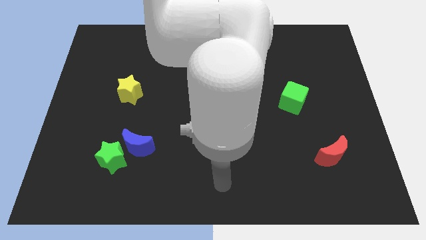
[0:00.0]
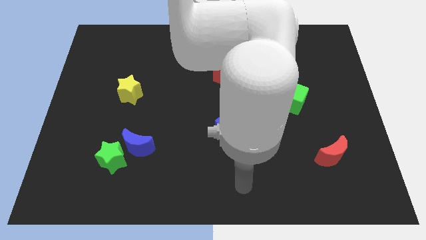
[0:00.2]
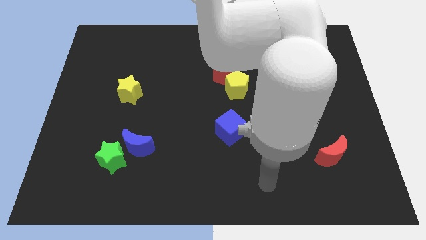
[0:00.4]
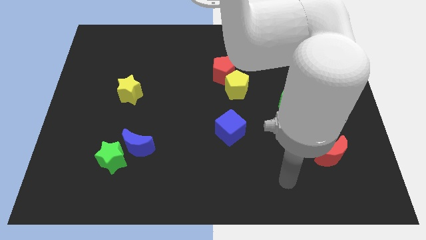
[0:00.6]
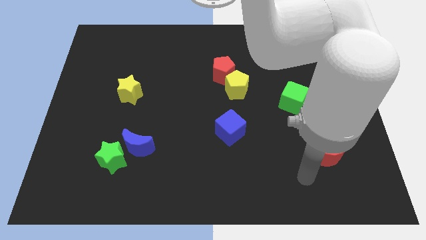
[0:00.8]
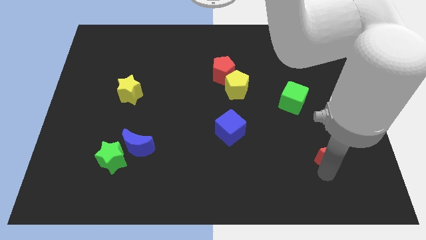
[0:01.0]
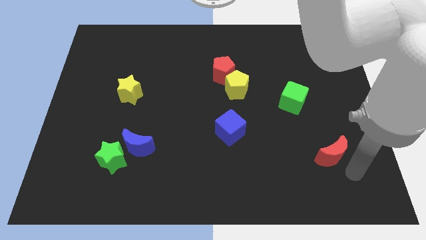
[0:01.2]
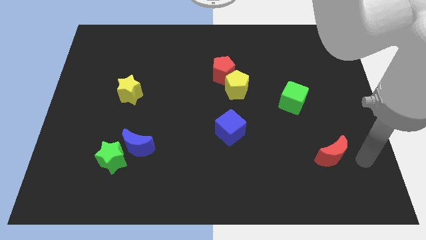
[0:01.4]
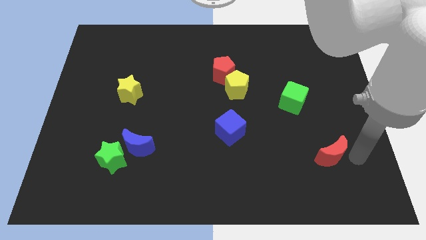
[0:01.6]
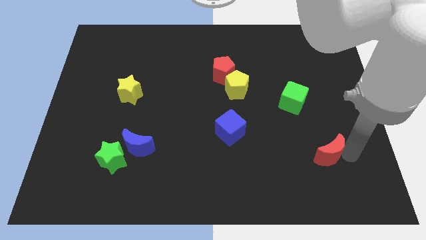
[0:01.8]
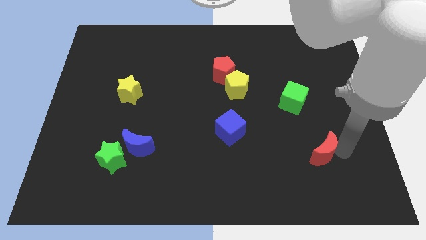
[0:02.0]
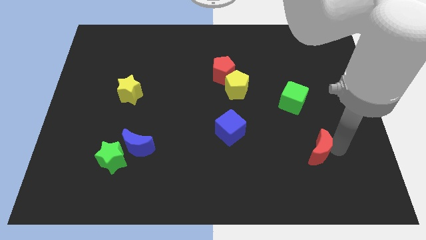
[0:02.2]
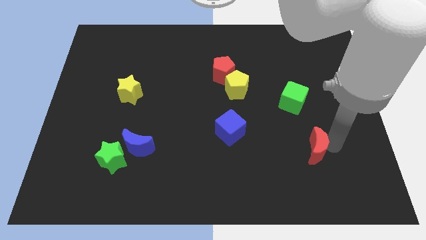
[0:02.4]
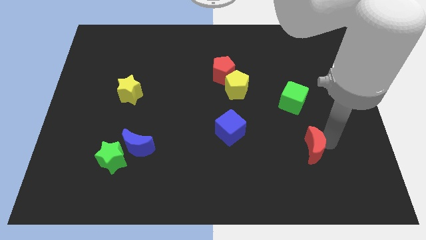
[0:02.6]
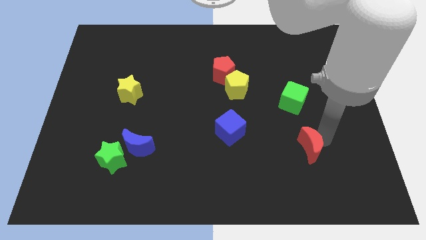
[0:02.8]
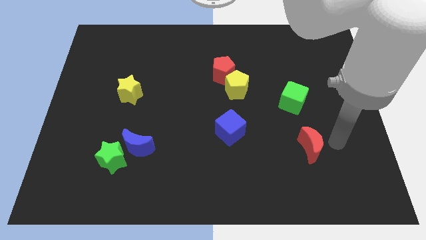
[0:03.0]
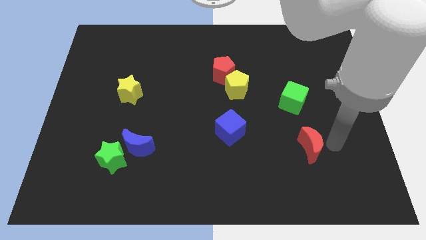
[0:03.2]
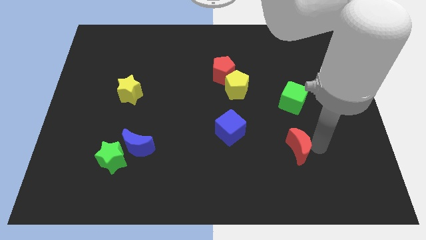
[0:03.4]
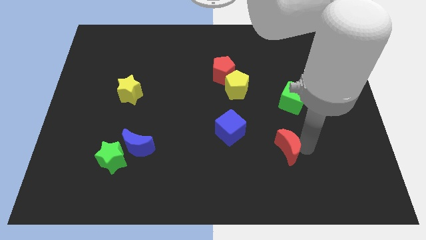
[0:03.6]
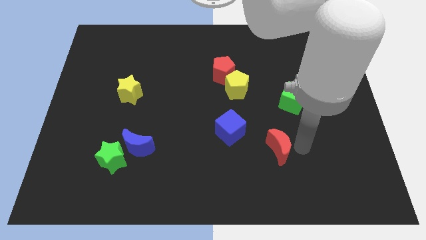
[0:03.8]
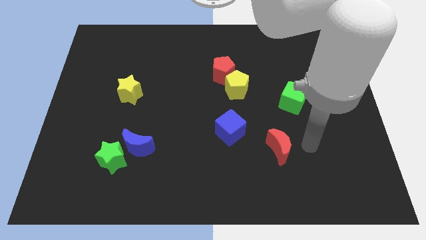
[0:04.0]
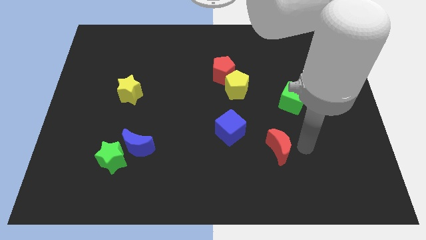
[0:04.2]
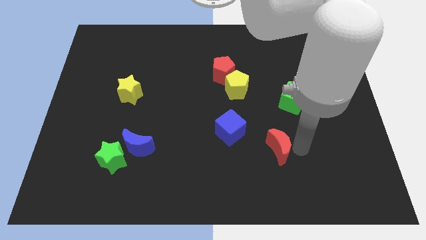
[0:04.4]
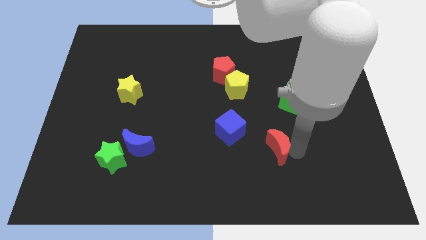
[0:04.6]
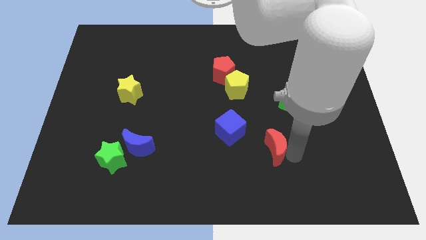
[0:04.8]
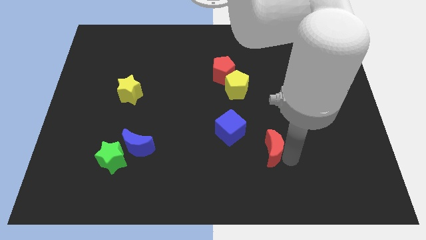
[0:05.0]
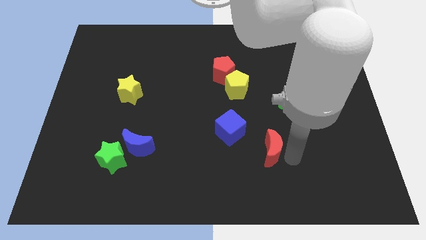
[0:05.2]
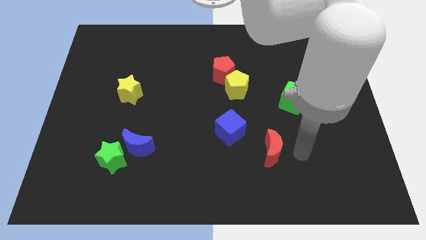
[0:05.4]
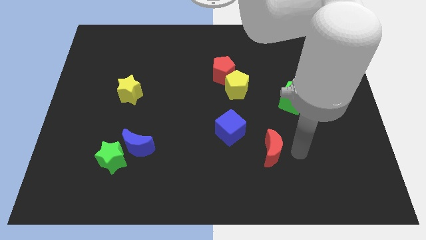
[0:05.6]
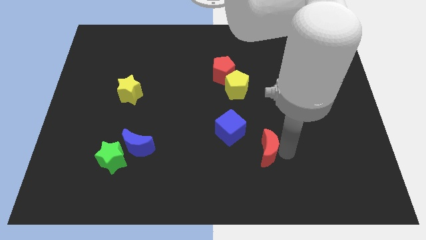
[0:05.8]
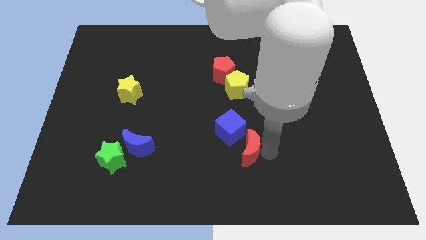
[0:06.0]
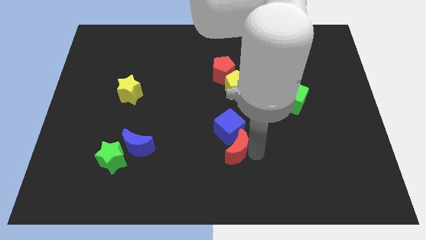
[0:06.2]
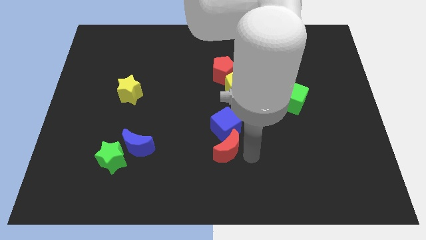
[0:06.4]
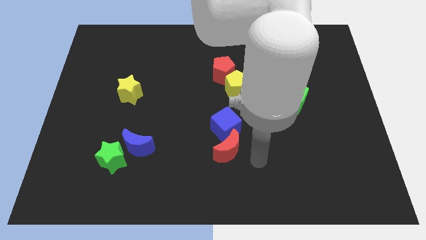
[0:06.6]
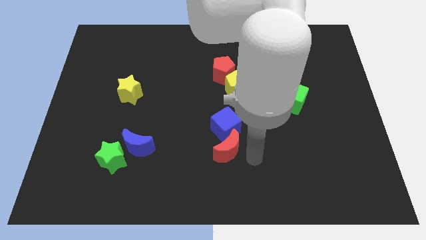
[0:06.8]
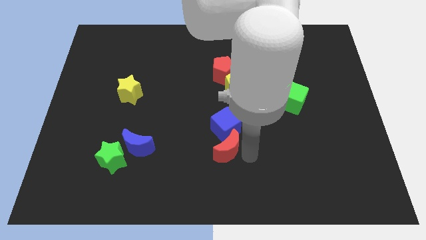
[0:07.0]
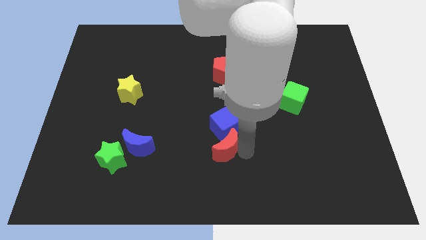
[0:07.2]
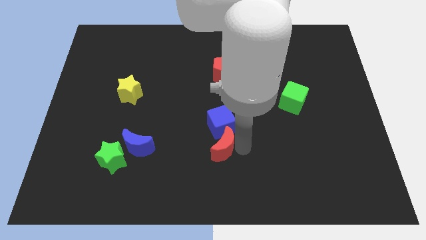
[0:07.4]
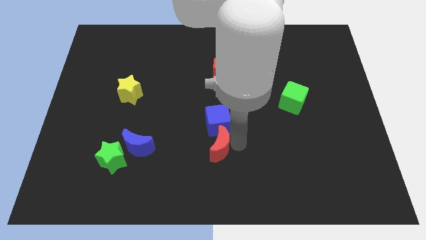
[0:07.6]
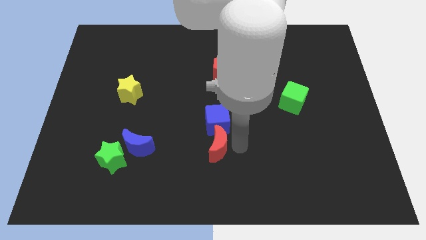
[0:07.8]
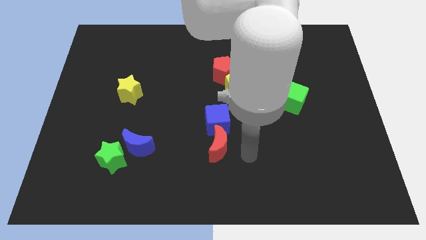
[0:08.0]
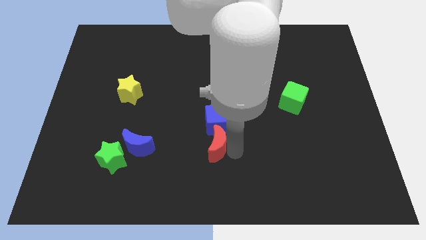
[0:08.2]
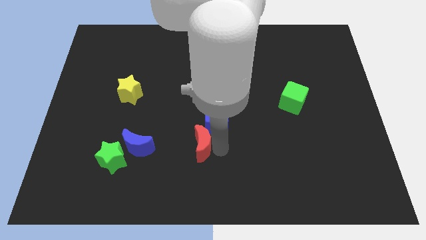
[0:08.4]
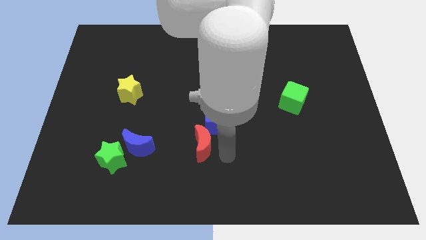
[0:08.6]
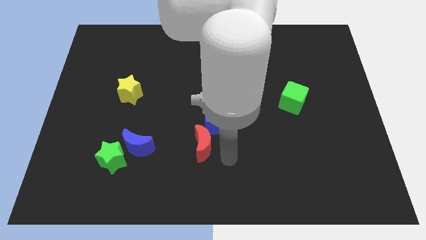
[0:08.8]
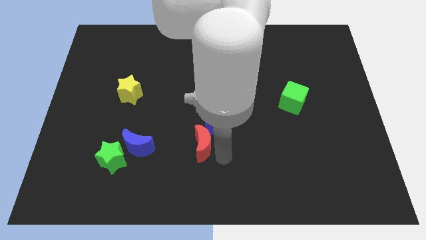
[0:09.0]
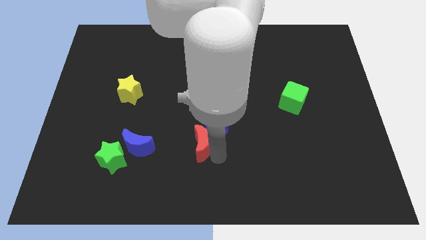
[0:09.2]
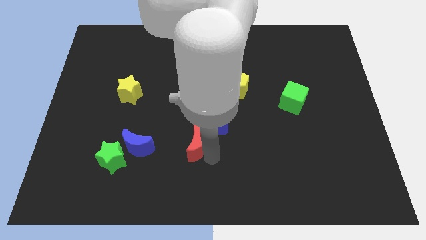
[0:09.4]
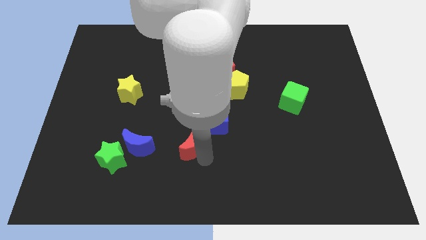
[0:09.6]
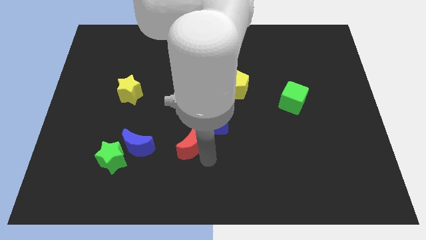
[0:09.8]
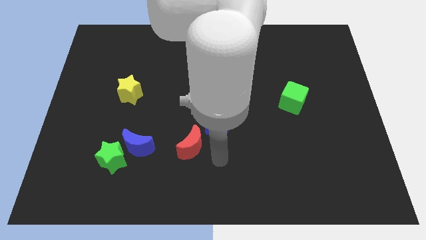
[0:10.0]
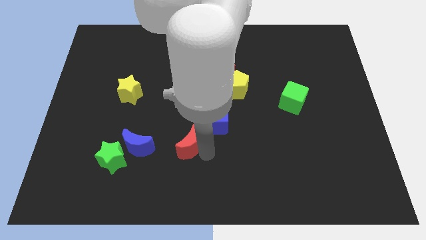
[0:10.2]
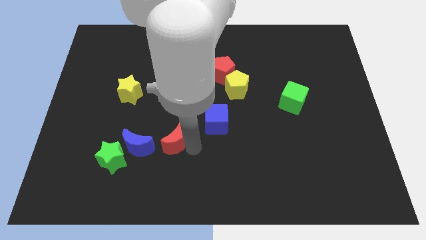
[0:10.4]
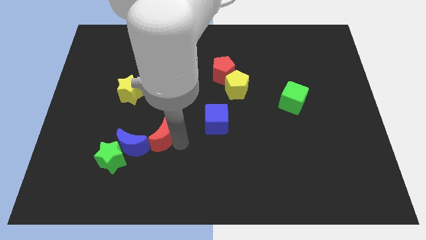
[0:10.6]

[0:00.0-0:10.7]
push the red moon to the top right side of the green star

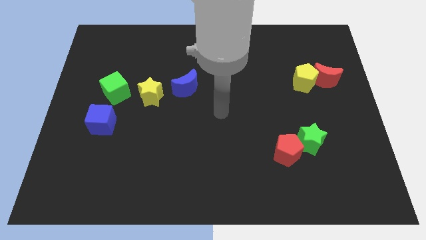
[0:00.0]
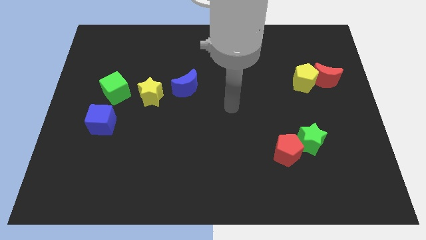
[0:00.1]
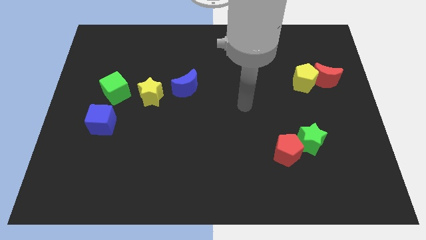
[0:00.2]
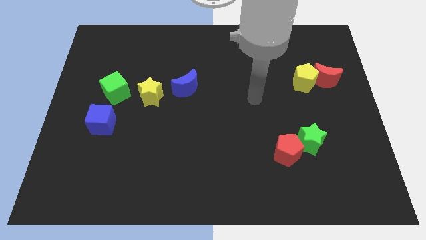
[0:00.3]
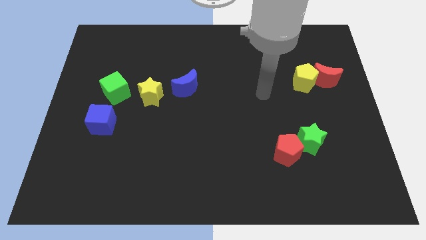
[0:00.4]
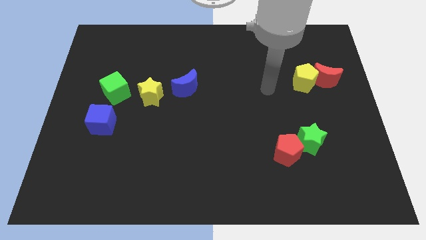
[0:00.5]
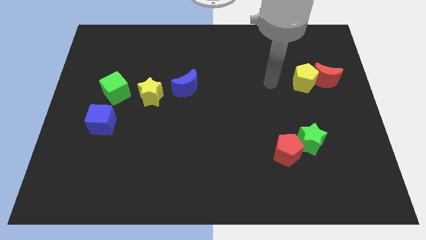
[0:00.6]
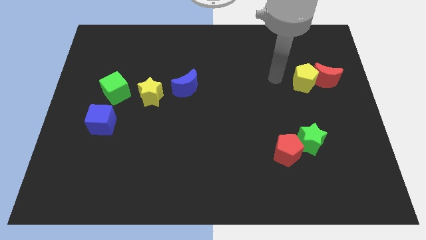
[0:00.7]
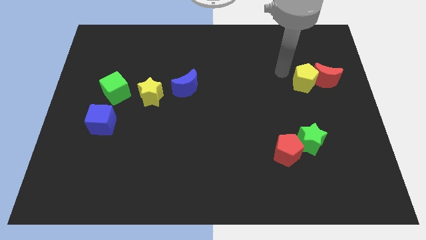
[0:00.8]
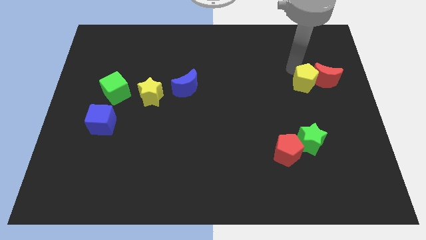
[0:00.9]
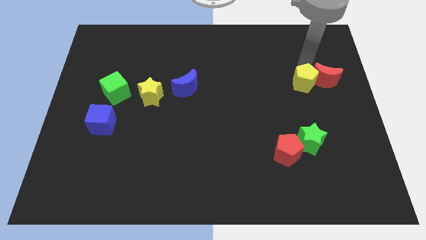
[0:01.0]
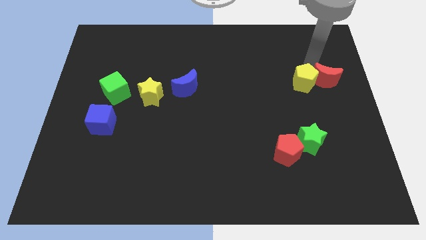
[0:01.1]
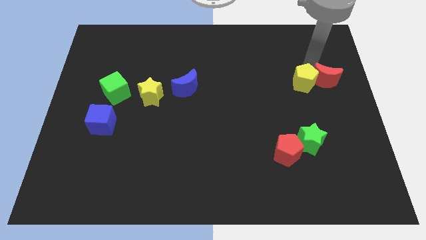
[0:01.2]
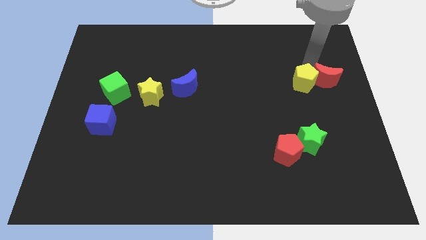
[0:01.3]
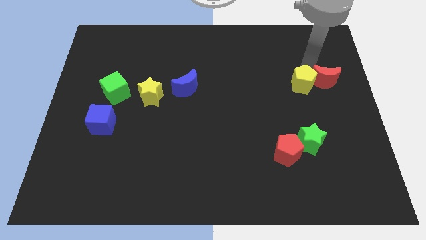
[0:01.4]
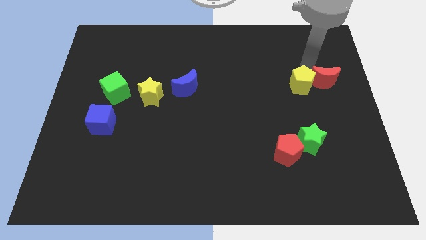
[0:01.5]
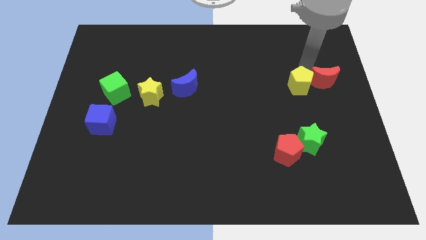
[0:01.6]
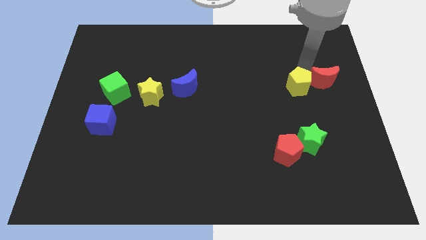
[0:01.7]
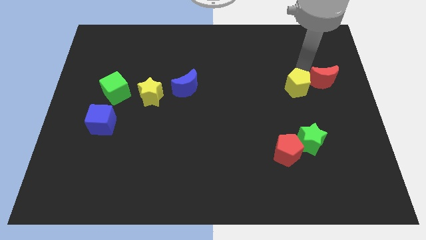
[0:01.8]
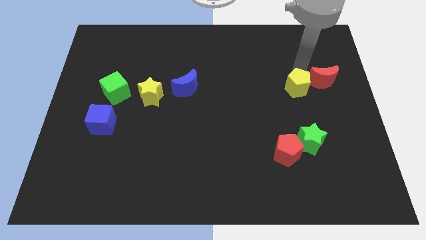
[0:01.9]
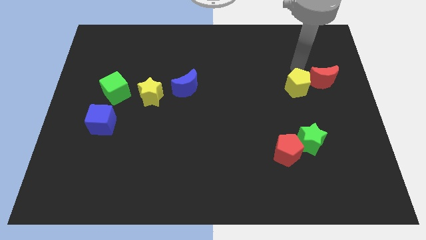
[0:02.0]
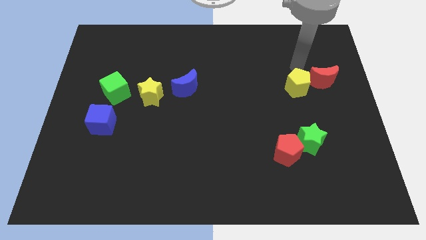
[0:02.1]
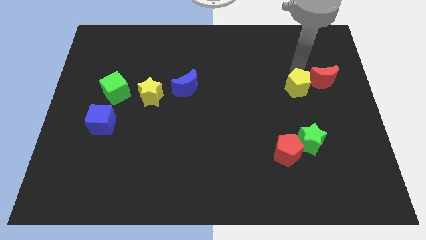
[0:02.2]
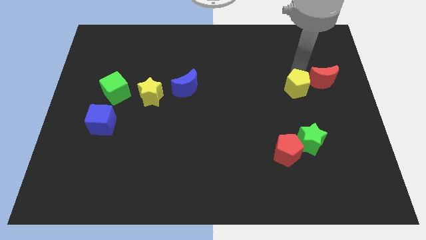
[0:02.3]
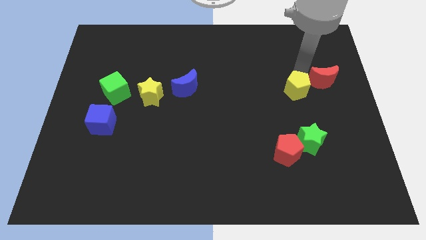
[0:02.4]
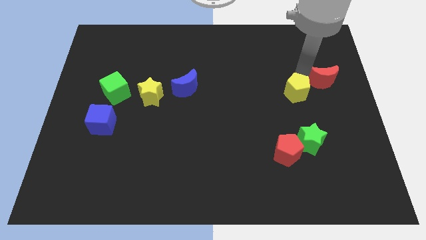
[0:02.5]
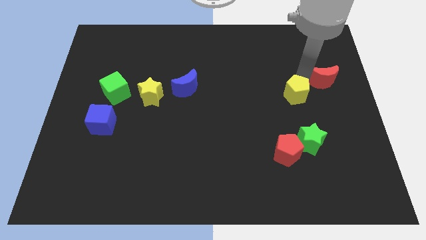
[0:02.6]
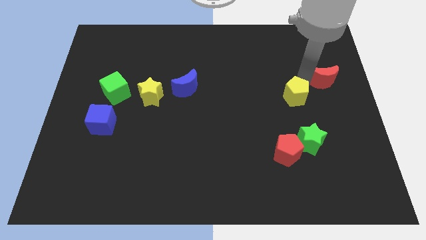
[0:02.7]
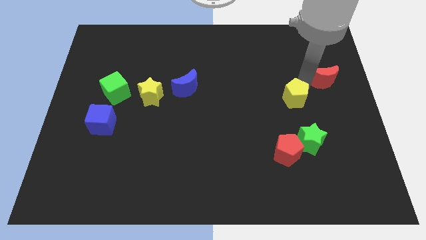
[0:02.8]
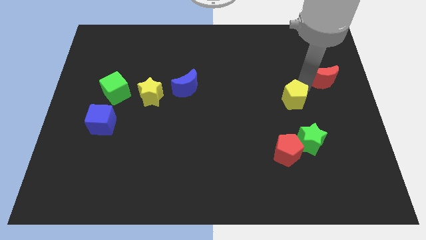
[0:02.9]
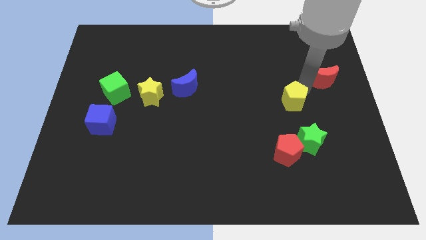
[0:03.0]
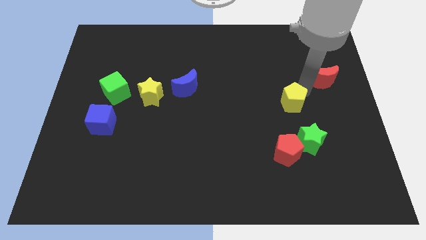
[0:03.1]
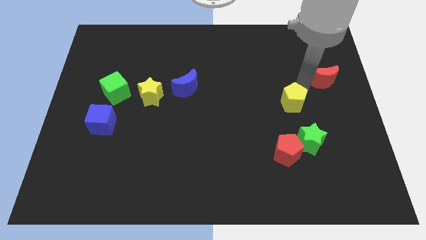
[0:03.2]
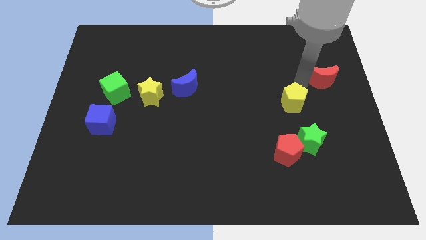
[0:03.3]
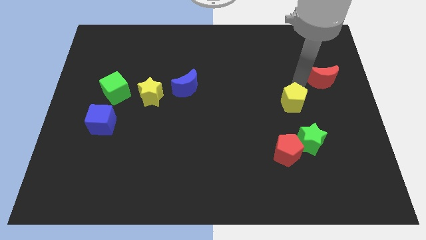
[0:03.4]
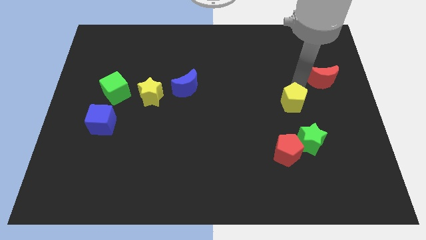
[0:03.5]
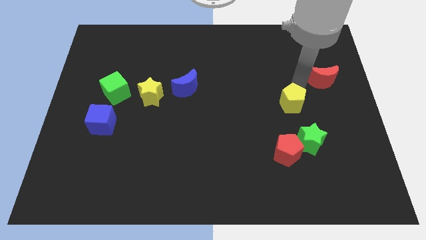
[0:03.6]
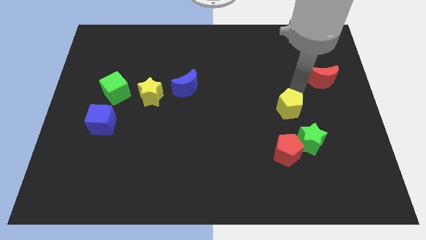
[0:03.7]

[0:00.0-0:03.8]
push the yellow pentagon to the top left side of the green star
